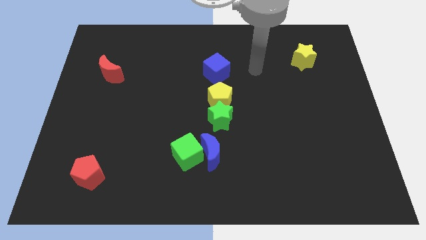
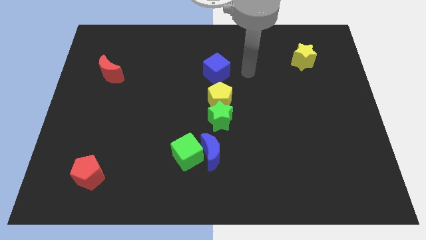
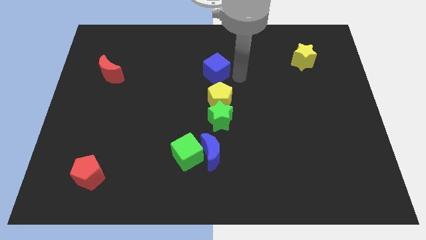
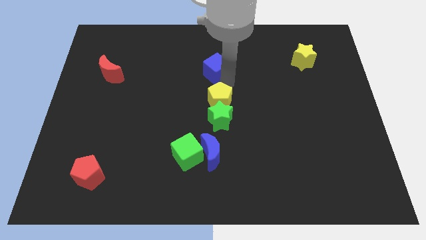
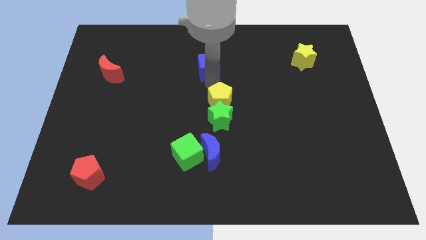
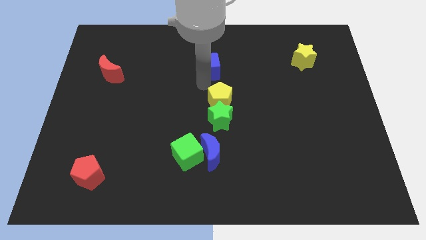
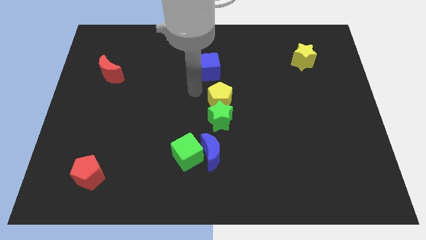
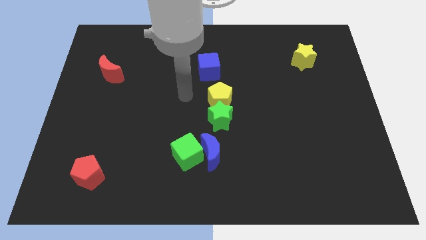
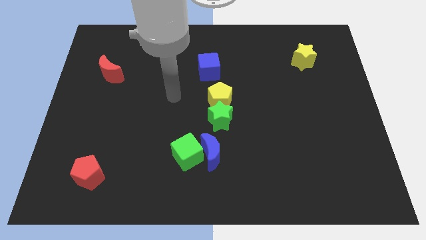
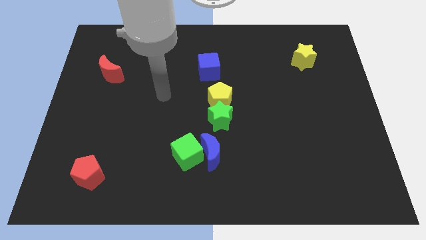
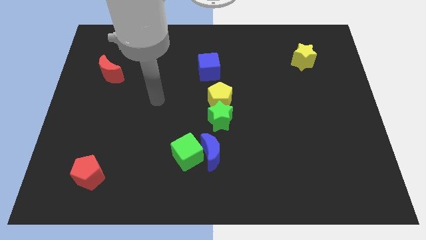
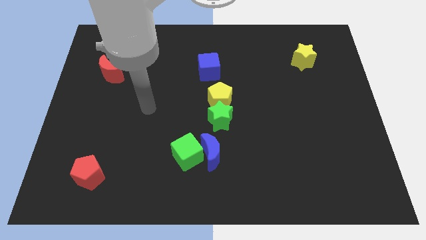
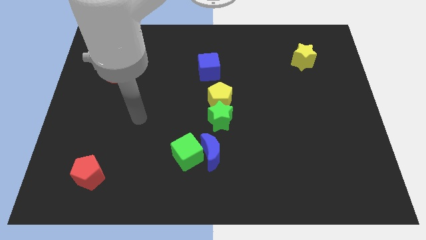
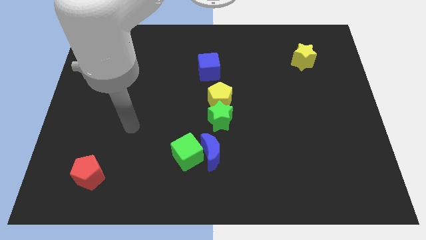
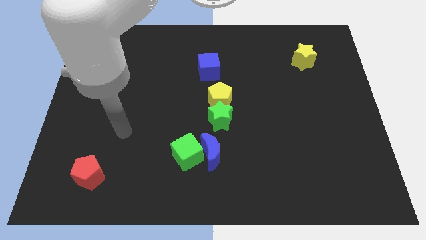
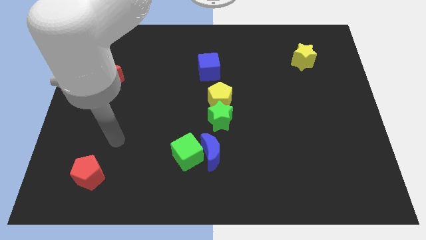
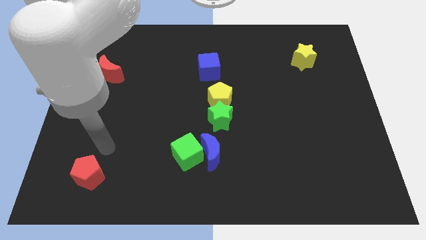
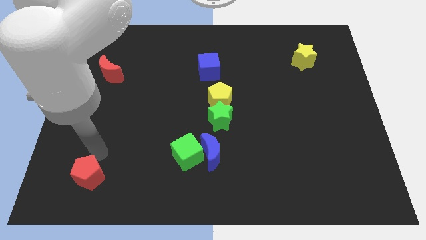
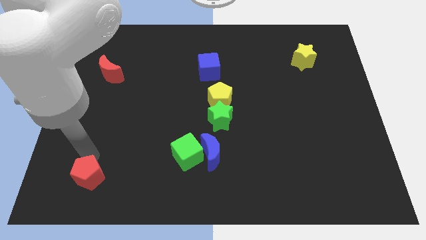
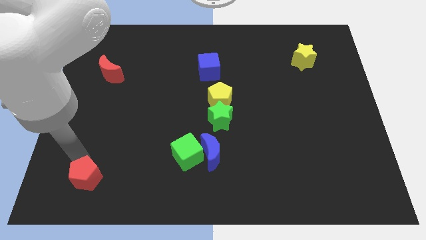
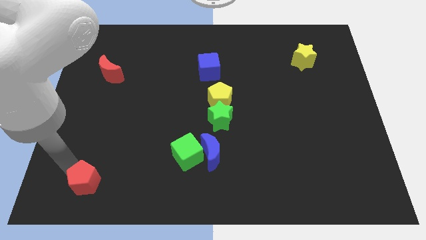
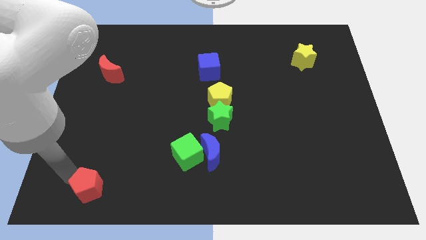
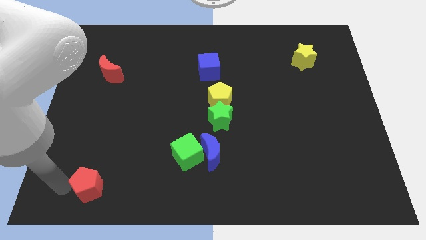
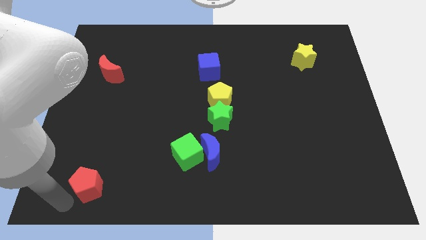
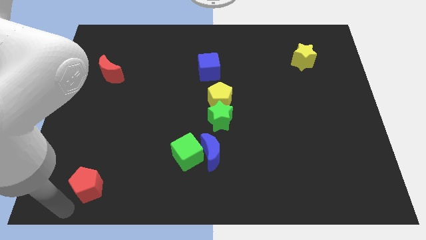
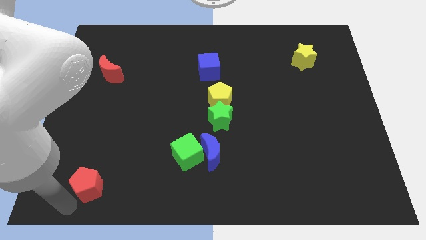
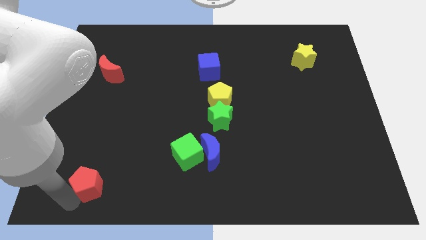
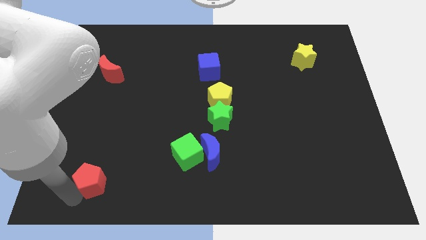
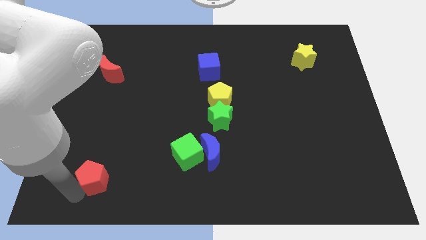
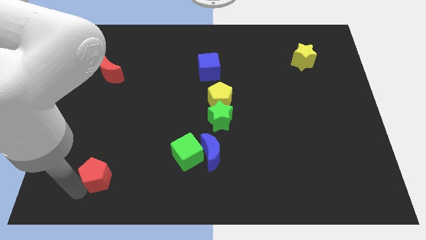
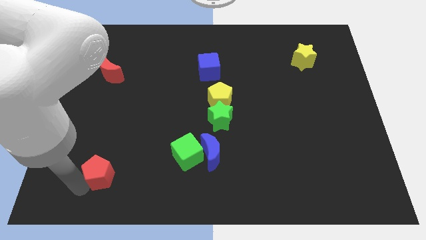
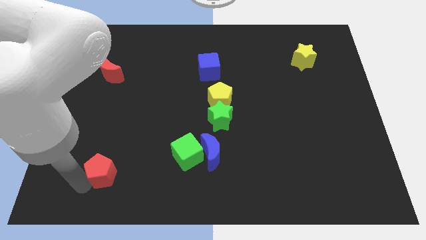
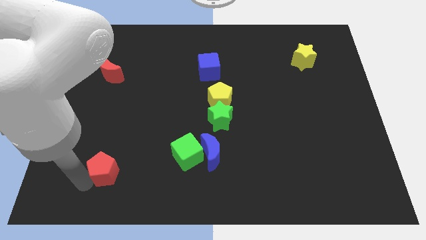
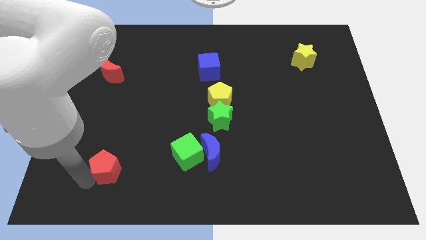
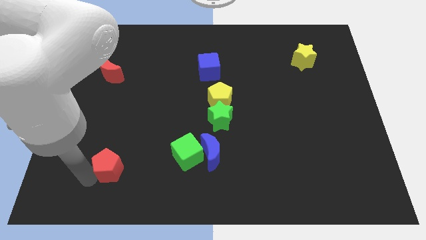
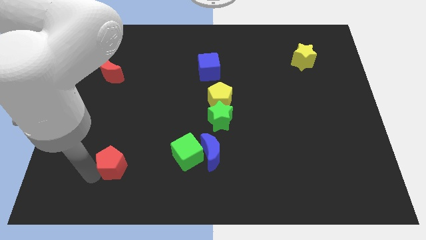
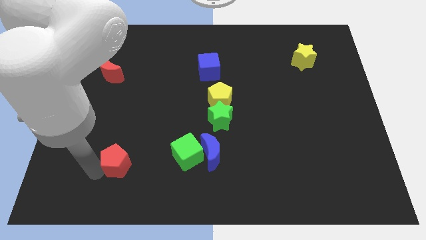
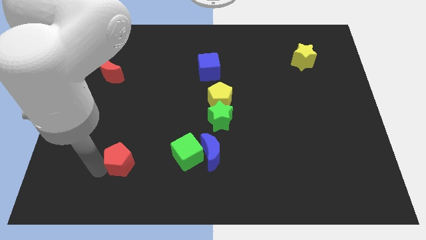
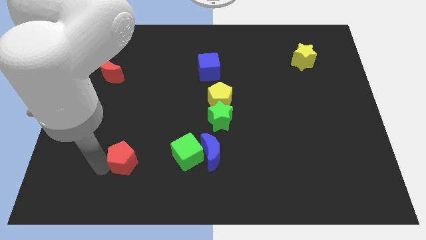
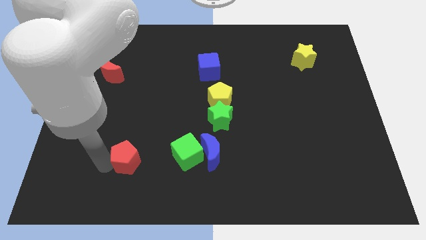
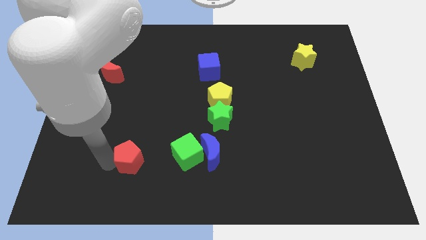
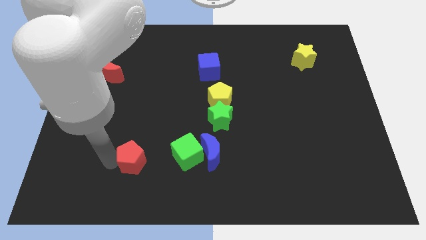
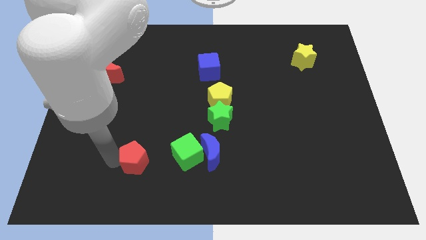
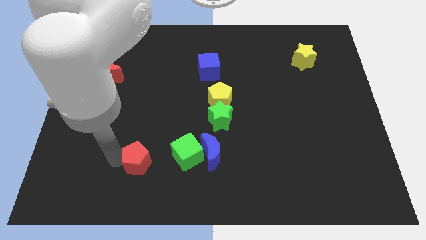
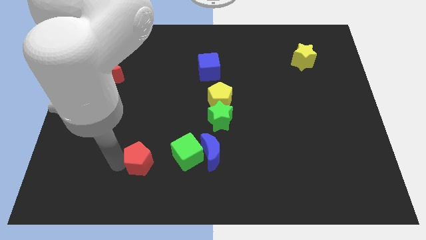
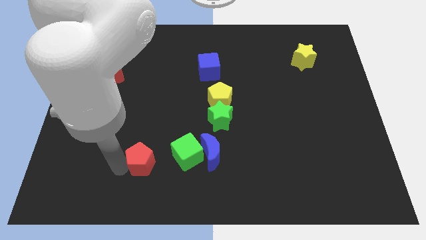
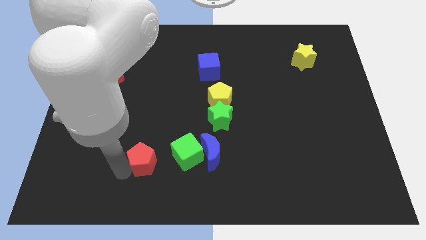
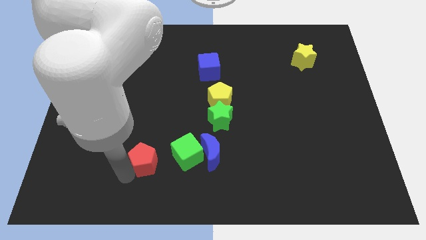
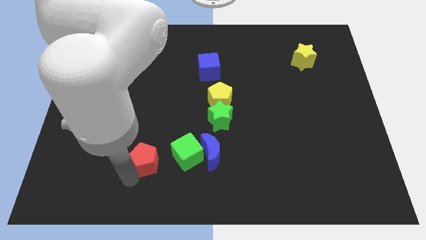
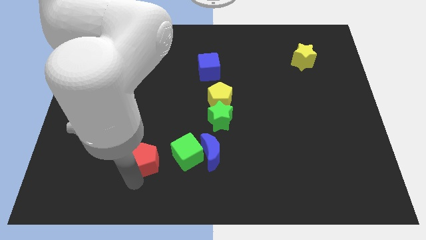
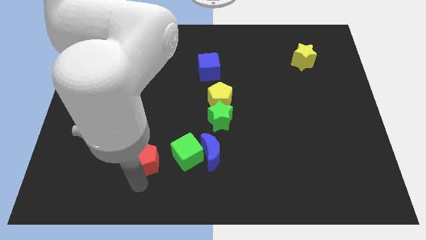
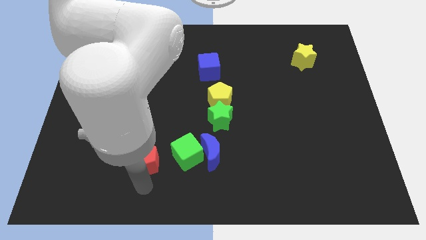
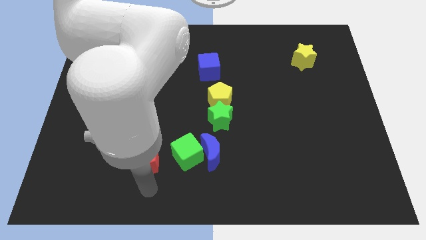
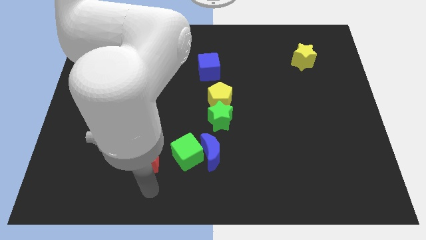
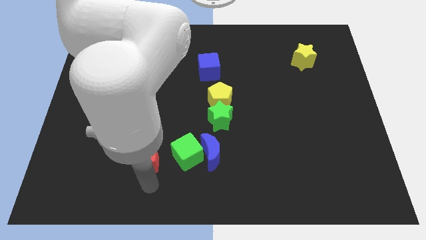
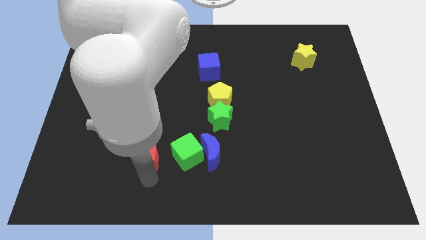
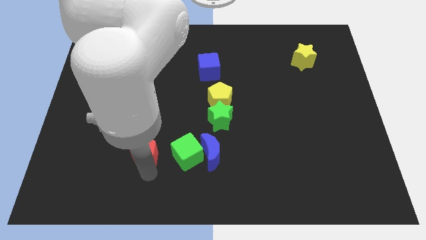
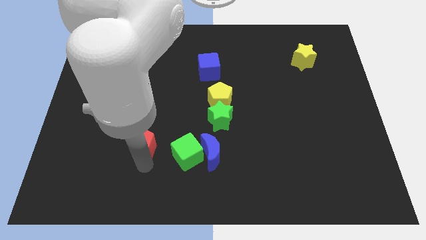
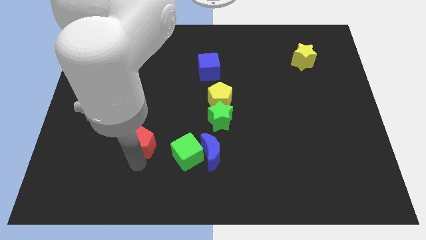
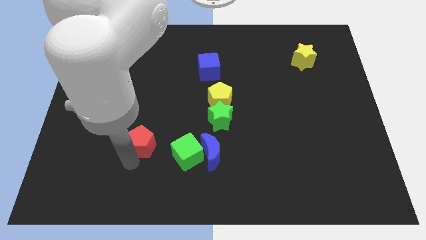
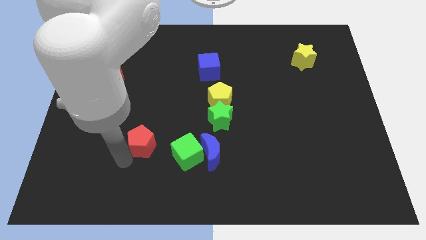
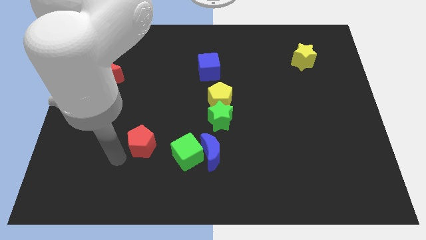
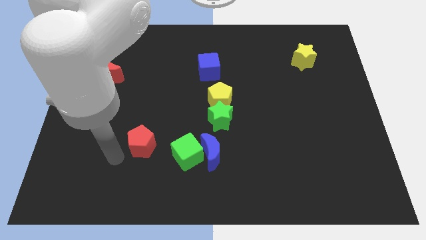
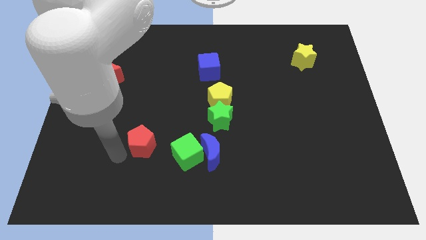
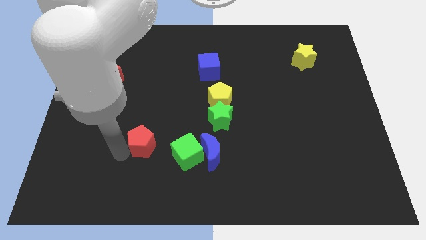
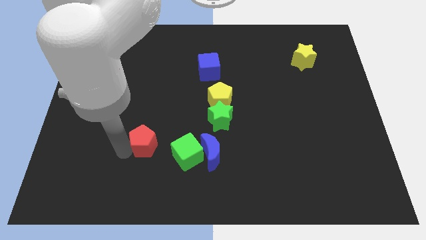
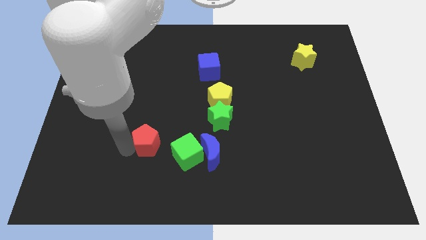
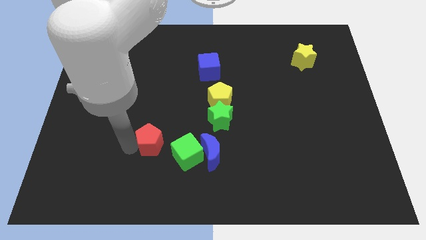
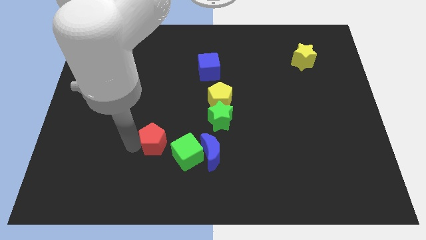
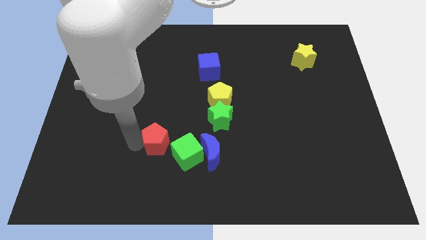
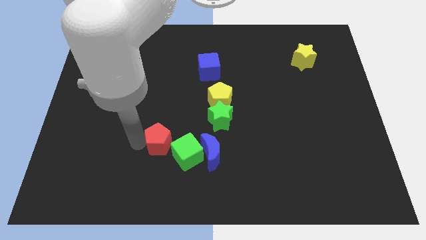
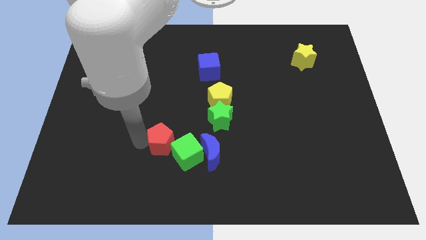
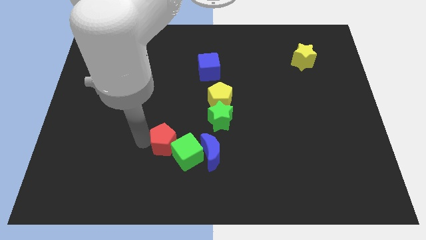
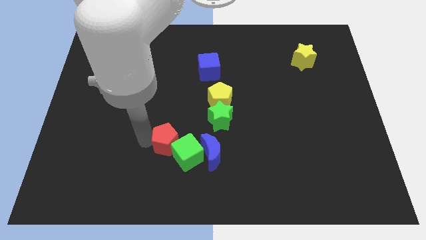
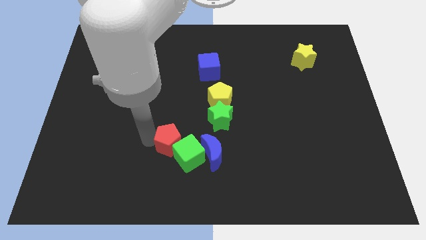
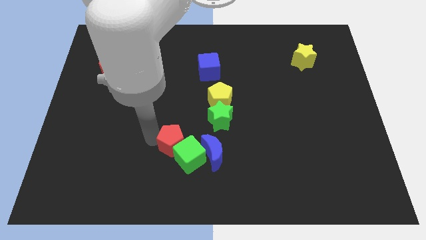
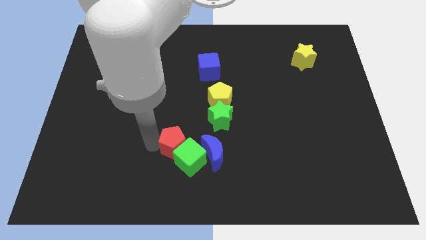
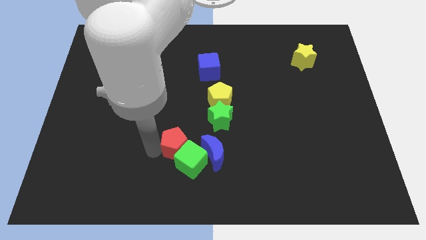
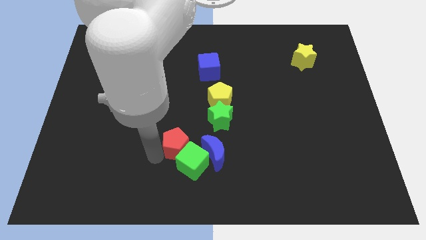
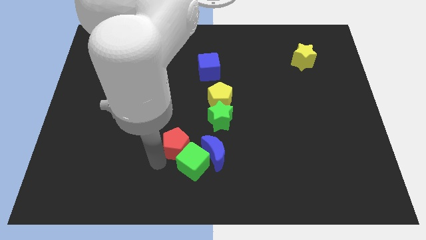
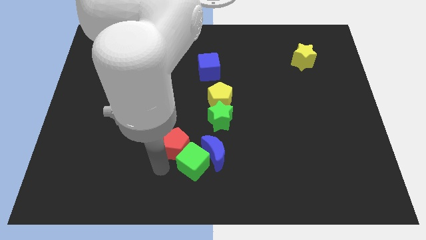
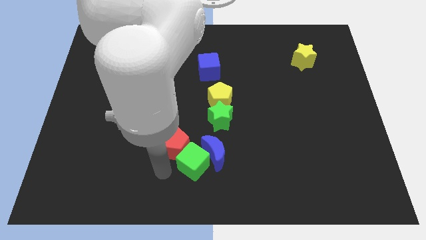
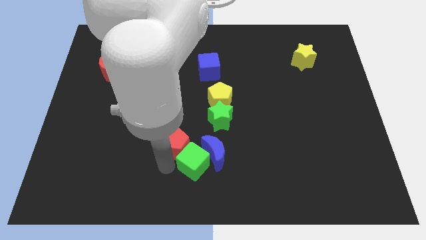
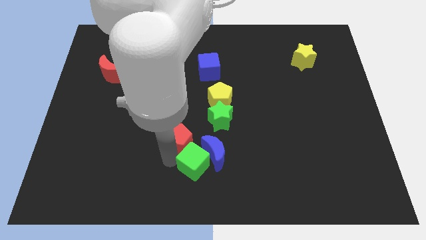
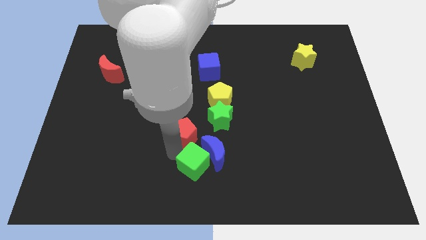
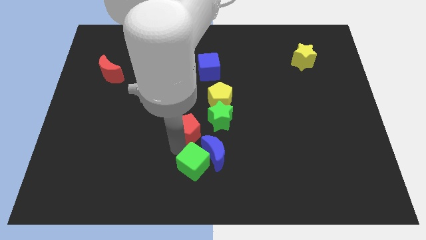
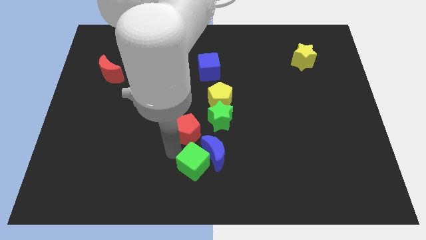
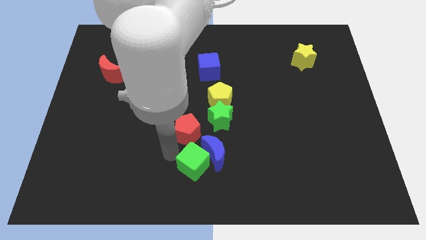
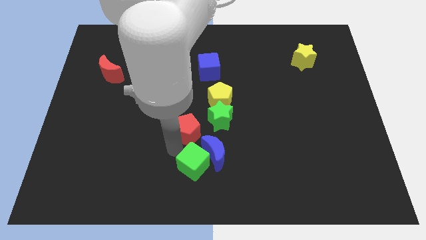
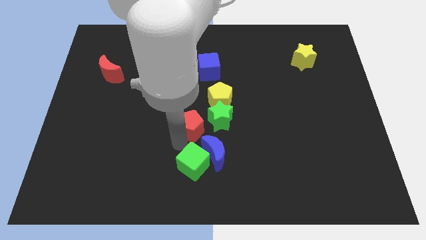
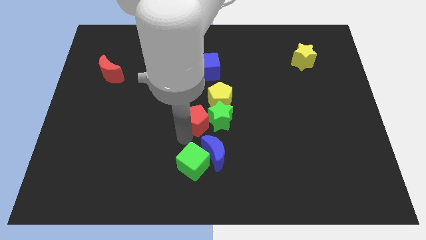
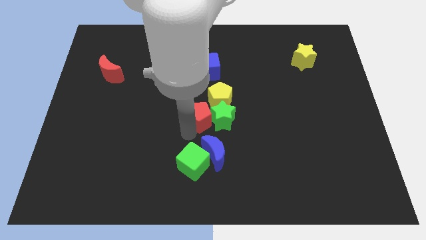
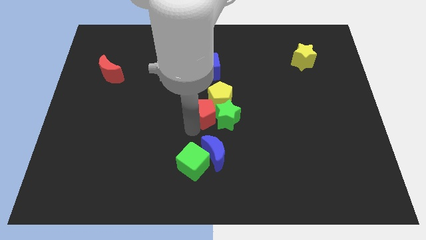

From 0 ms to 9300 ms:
push the red pentagon to the yellow pentagon
